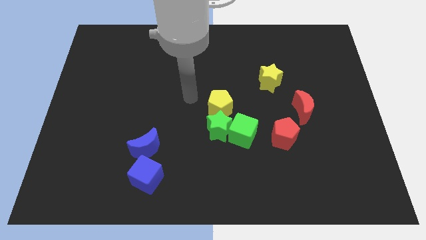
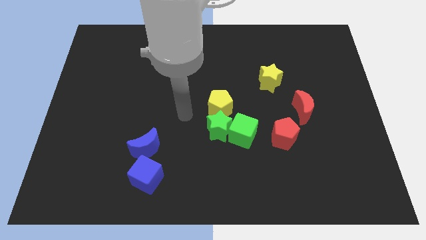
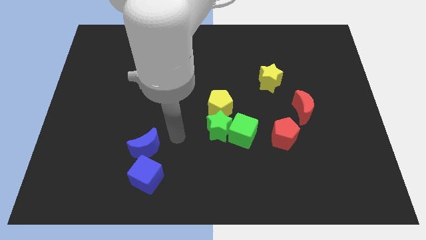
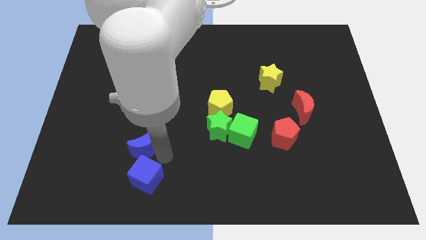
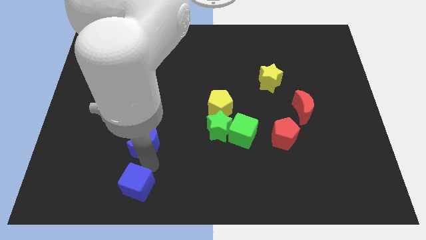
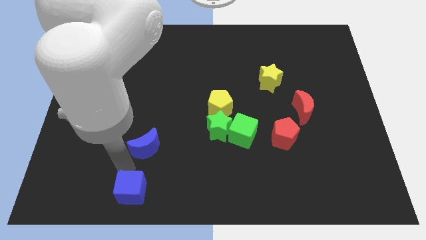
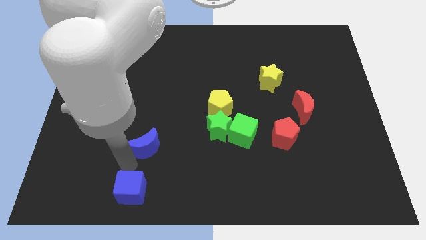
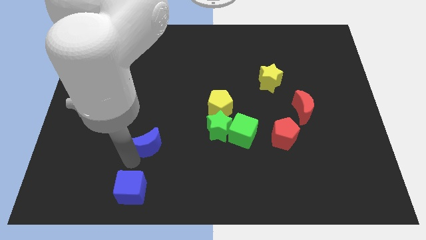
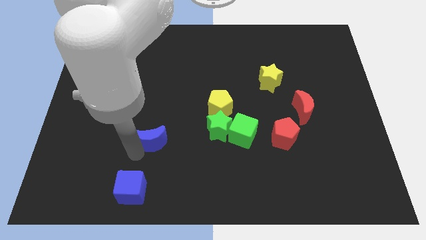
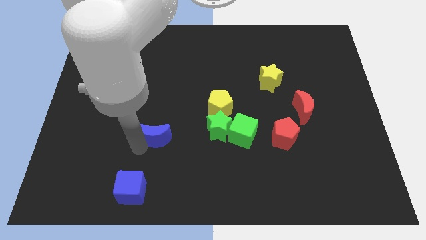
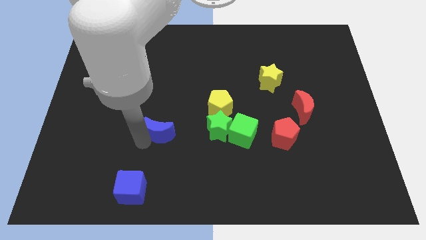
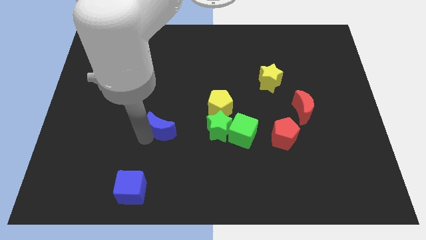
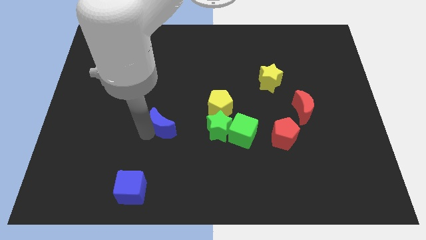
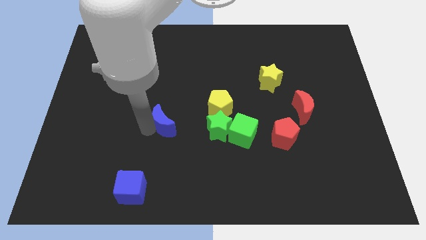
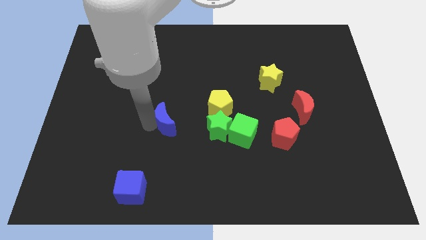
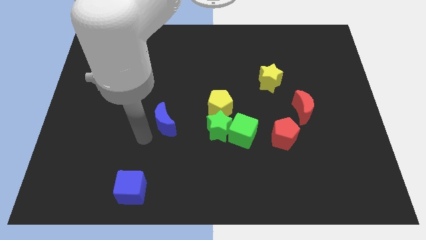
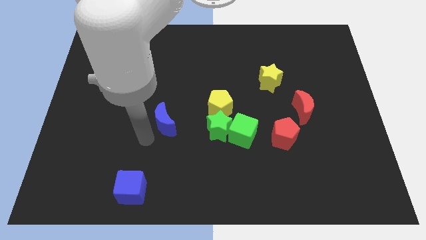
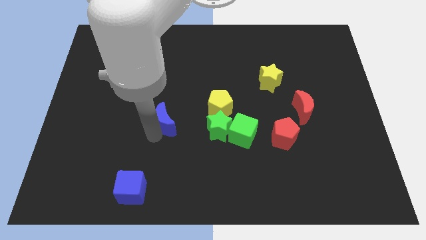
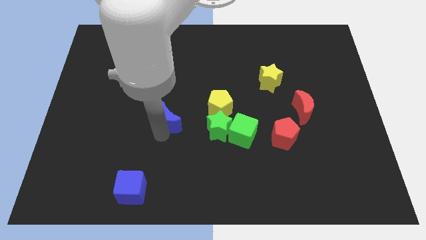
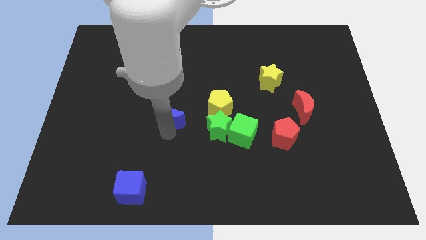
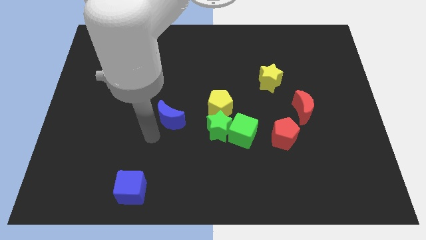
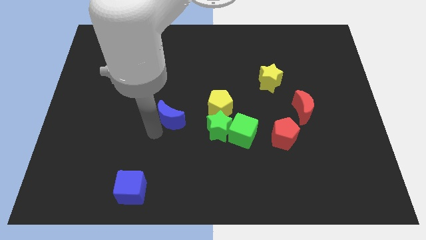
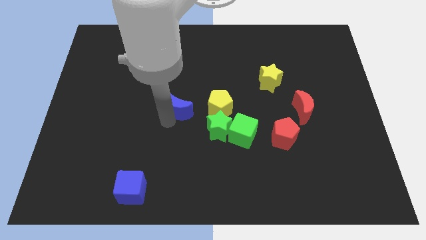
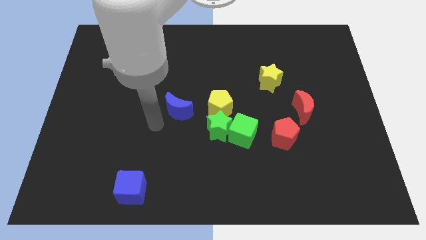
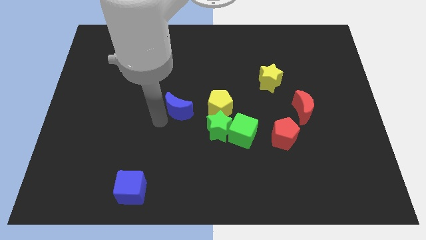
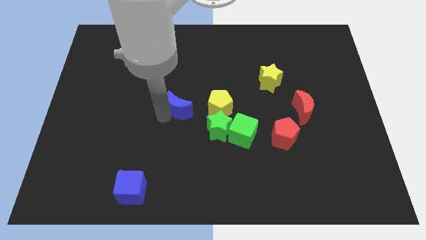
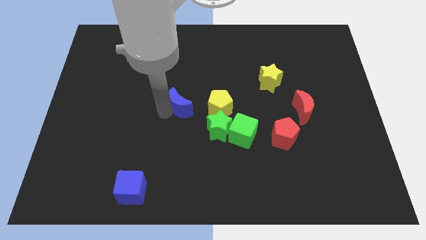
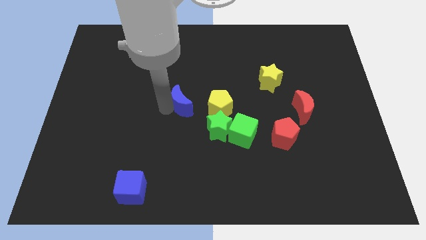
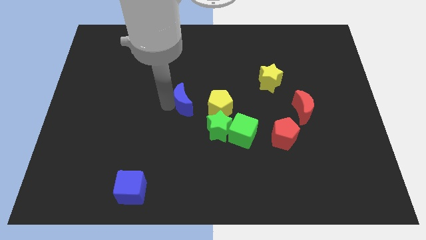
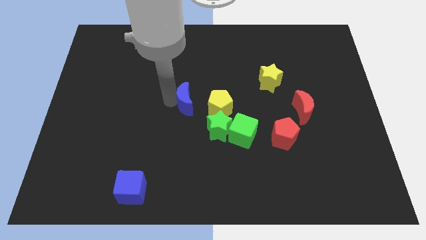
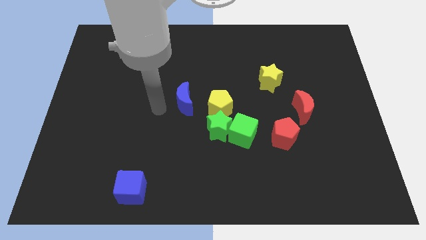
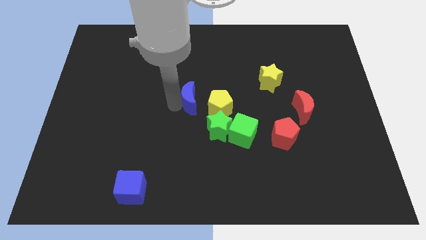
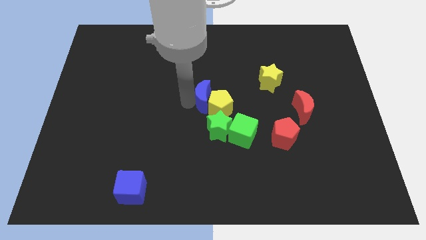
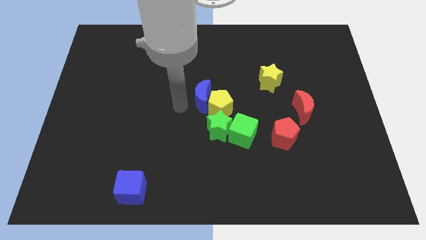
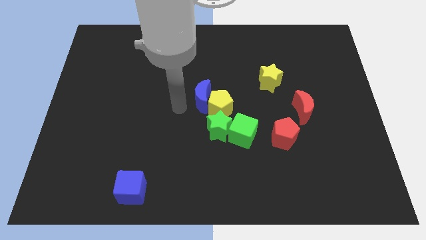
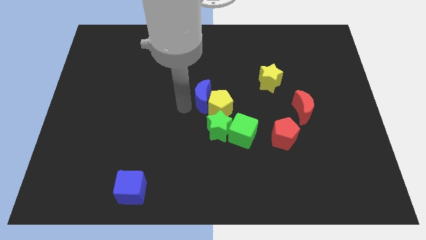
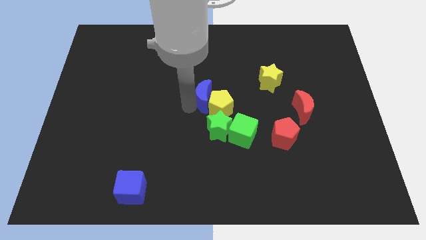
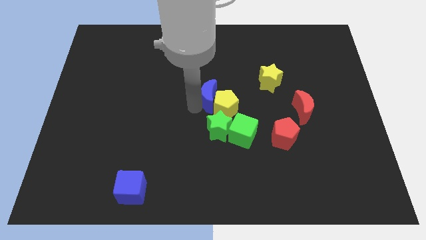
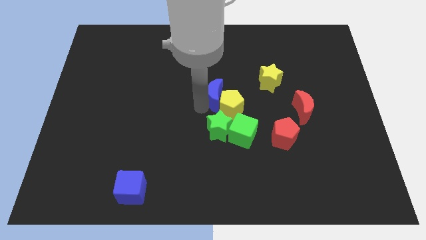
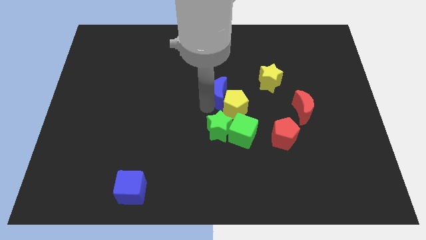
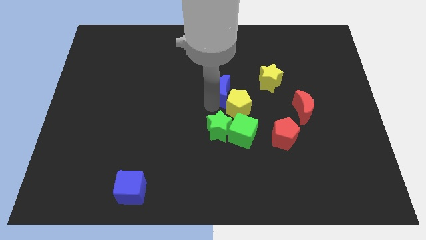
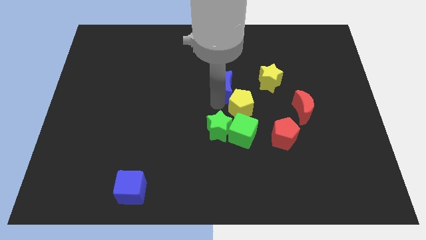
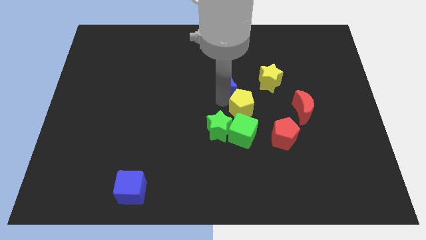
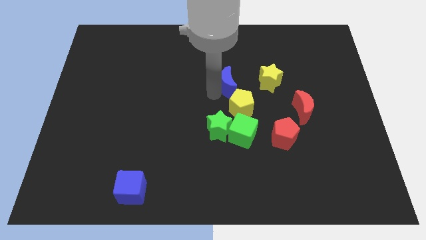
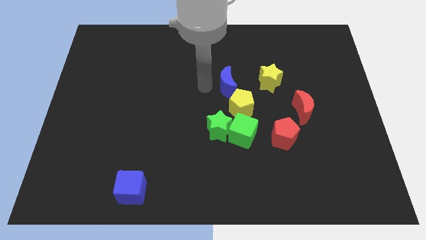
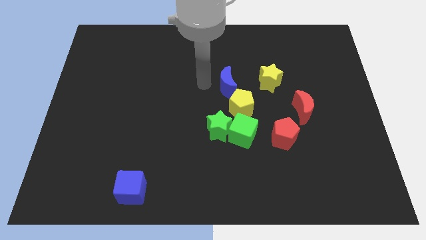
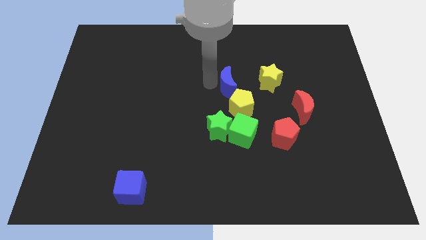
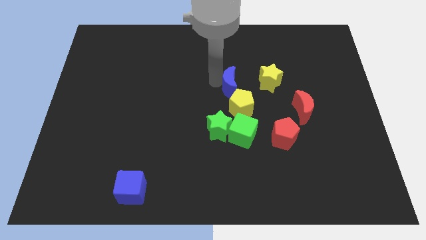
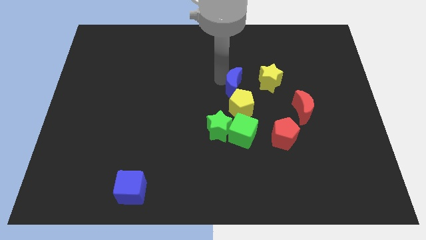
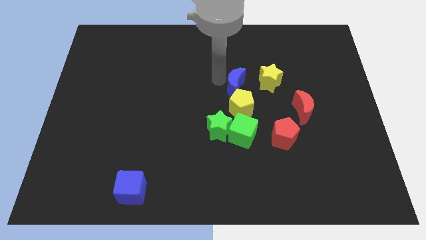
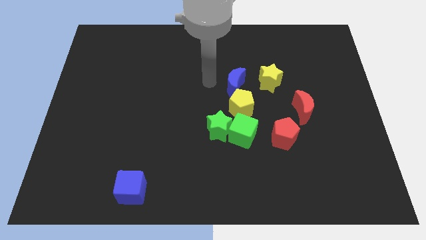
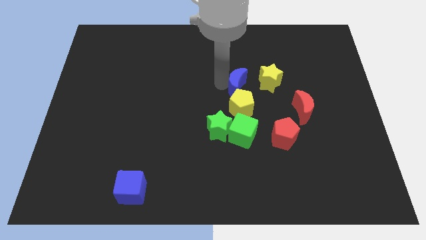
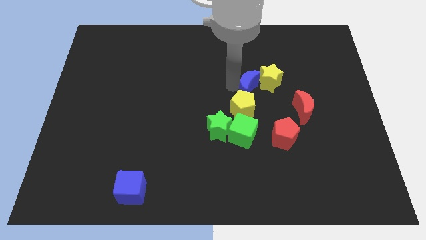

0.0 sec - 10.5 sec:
move the blue moon to the yellow star
